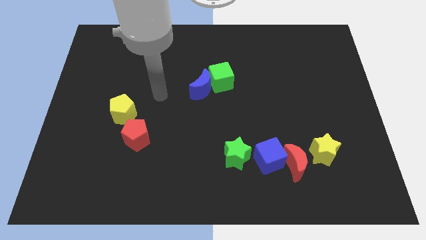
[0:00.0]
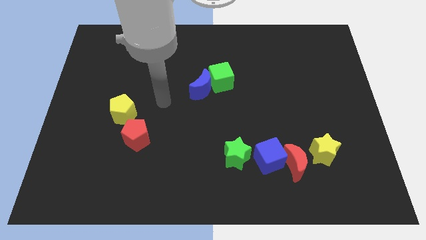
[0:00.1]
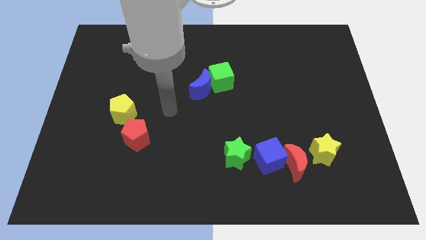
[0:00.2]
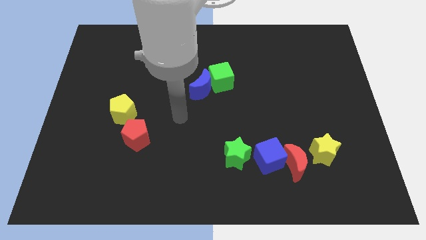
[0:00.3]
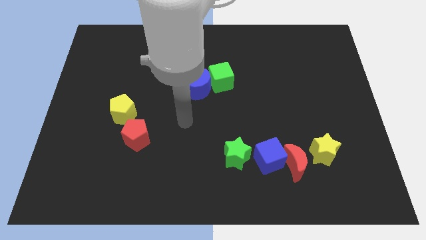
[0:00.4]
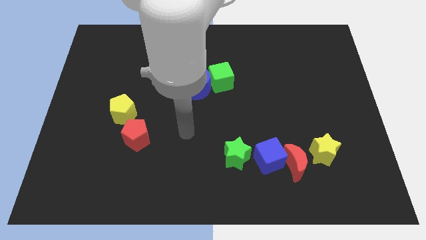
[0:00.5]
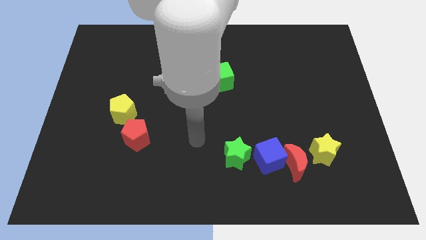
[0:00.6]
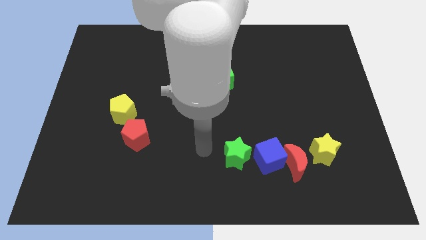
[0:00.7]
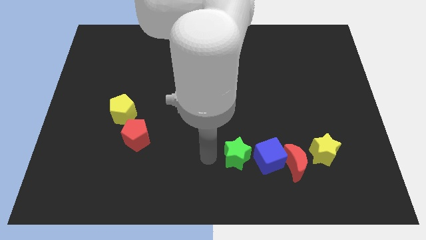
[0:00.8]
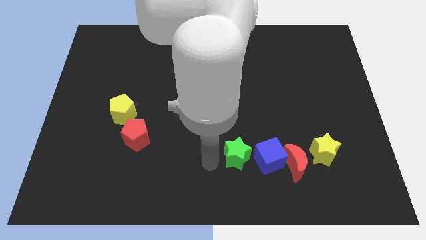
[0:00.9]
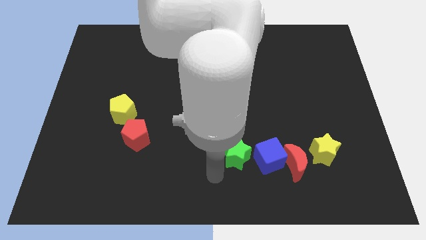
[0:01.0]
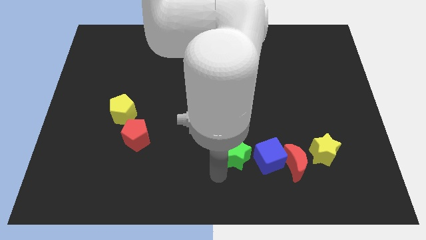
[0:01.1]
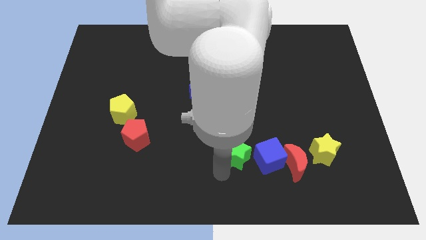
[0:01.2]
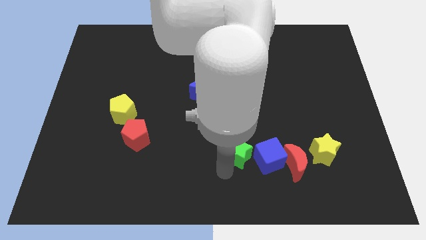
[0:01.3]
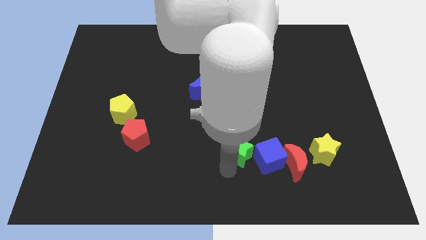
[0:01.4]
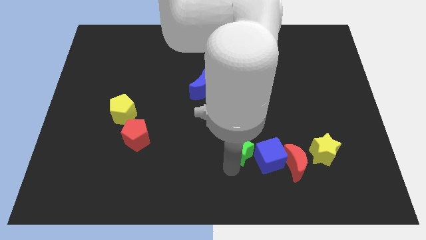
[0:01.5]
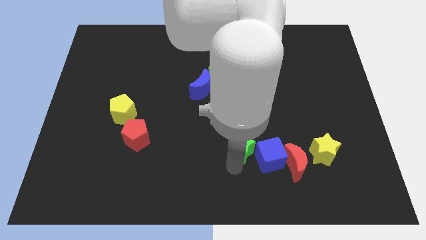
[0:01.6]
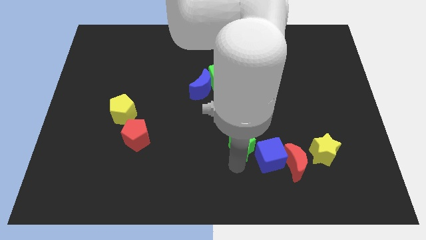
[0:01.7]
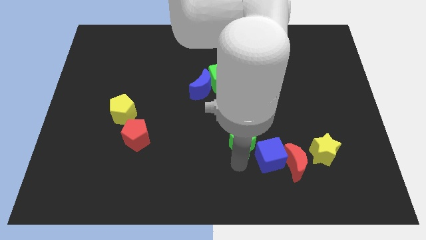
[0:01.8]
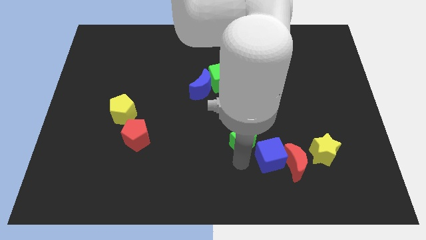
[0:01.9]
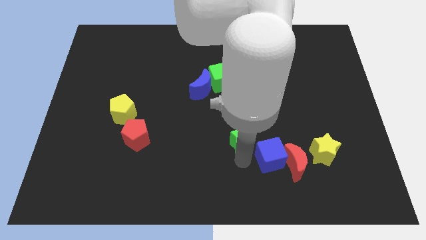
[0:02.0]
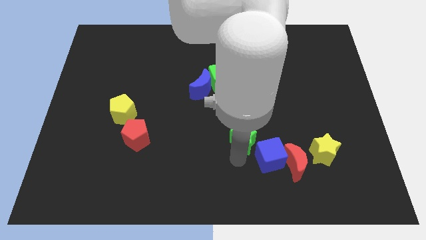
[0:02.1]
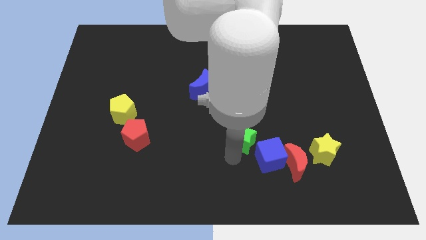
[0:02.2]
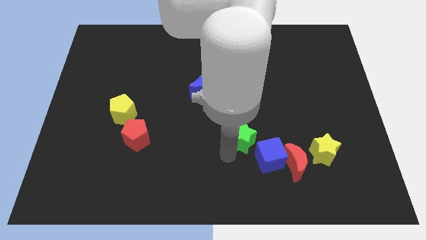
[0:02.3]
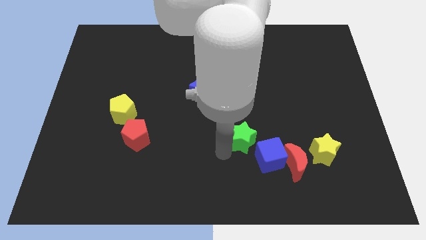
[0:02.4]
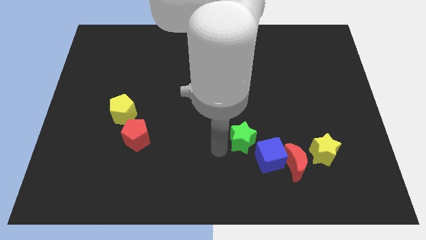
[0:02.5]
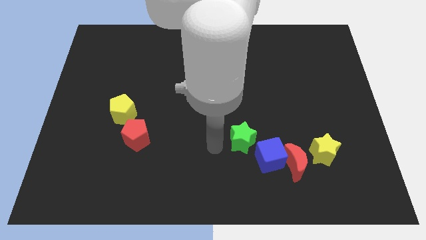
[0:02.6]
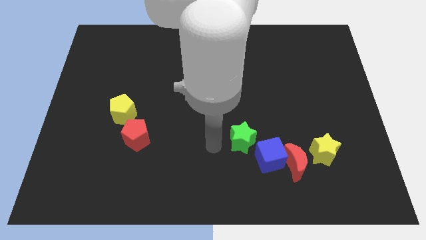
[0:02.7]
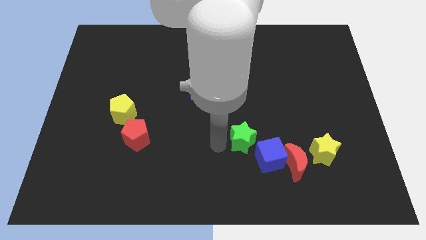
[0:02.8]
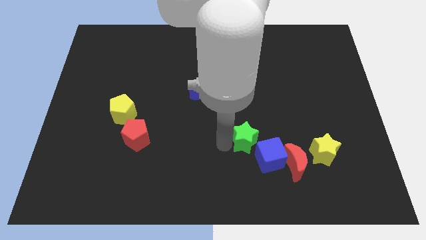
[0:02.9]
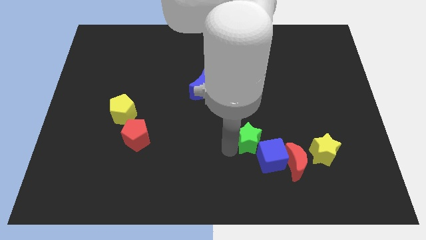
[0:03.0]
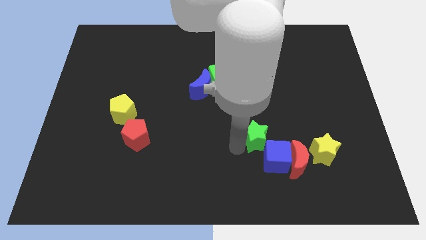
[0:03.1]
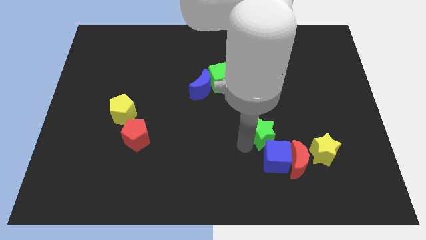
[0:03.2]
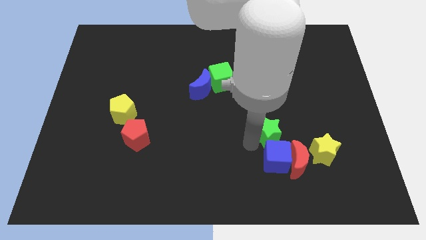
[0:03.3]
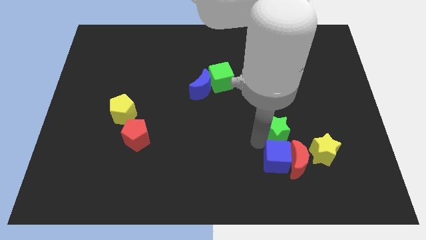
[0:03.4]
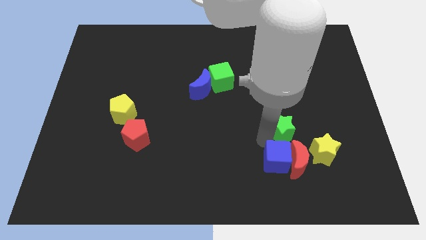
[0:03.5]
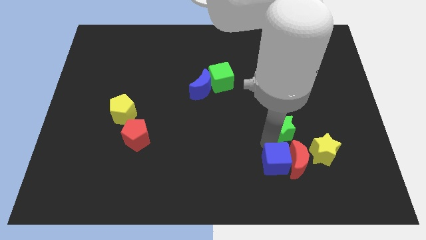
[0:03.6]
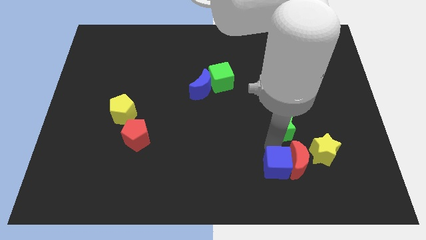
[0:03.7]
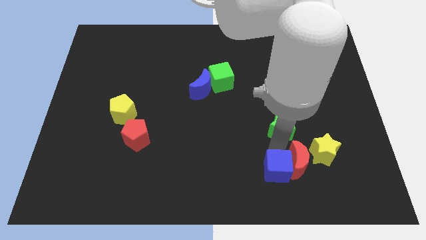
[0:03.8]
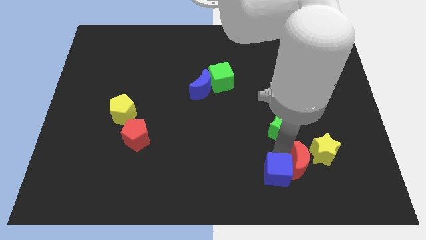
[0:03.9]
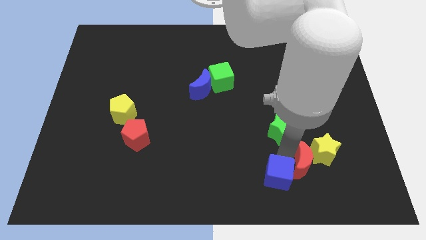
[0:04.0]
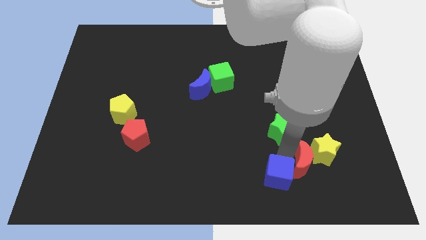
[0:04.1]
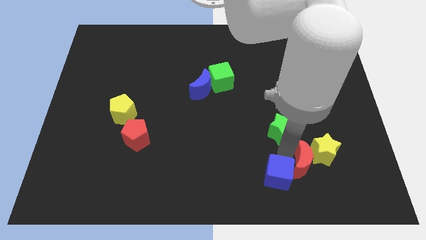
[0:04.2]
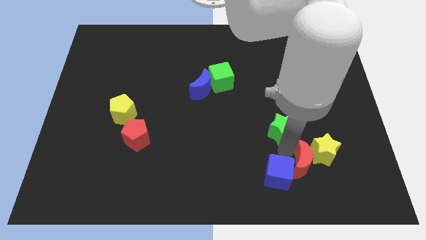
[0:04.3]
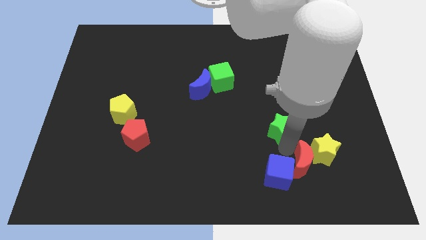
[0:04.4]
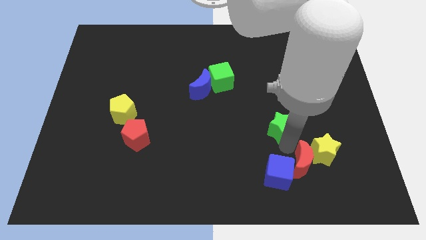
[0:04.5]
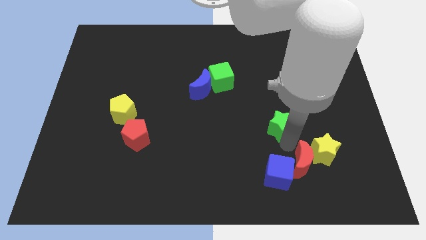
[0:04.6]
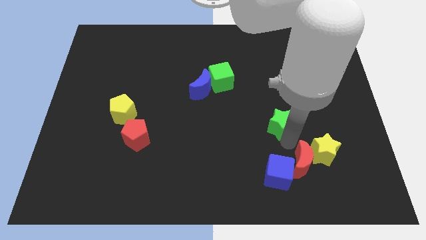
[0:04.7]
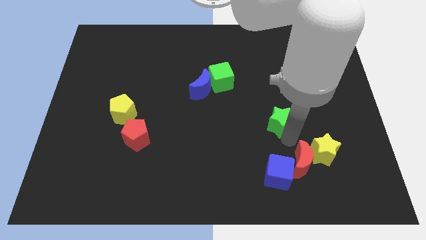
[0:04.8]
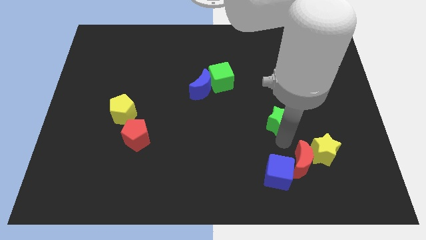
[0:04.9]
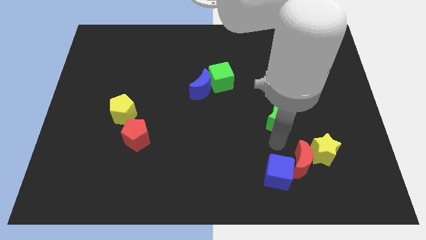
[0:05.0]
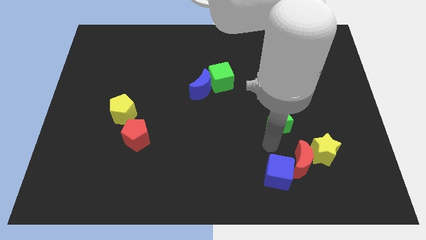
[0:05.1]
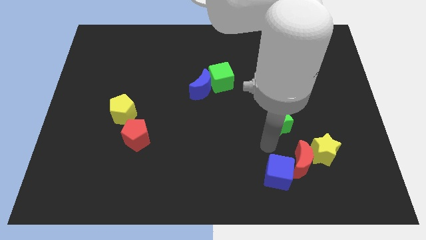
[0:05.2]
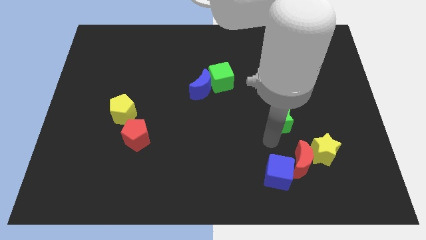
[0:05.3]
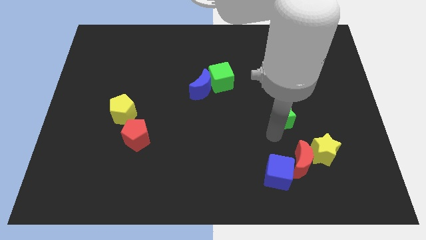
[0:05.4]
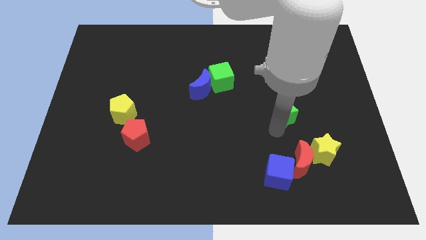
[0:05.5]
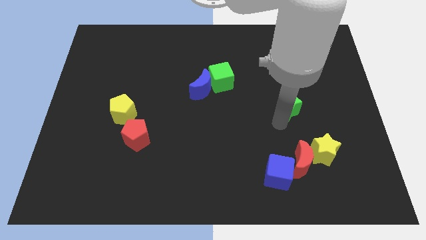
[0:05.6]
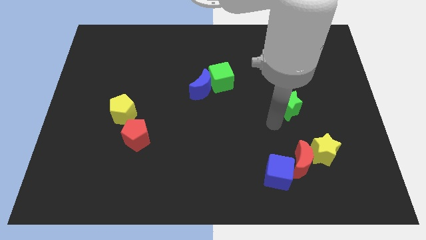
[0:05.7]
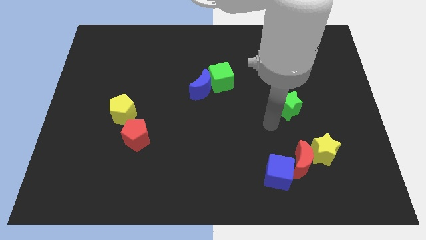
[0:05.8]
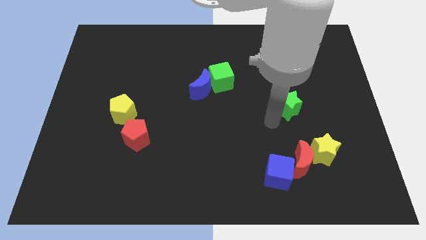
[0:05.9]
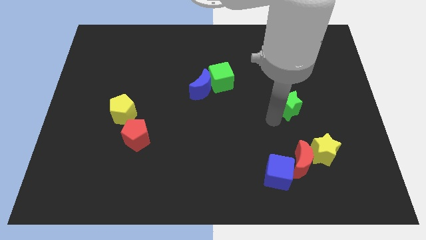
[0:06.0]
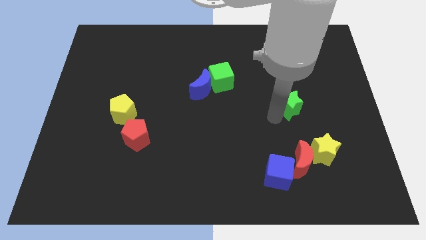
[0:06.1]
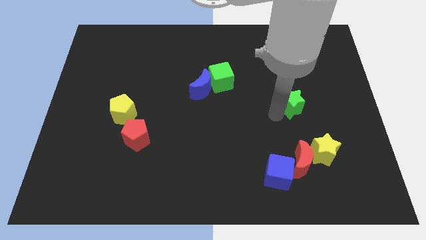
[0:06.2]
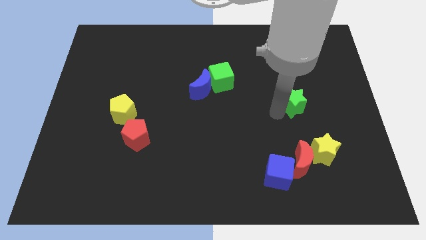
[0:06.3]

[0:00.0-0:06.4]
slide the green star up and then to the right

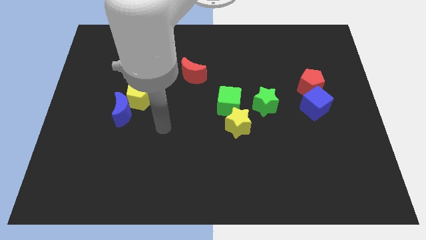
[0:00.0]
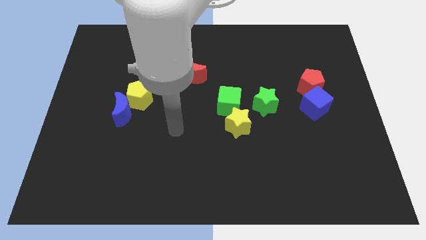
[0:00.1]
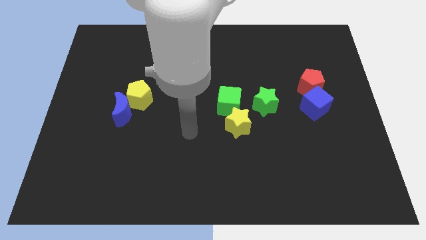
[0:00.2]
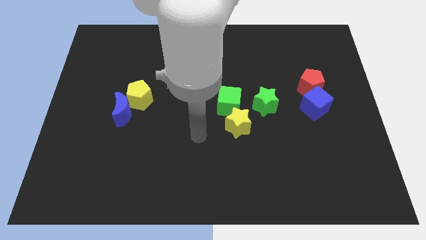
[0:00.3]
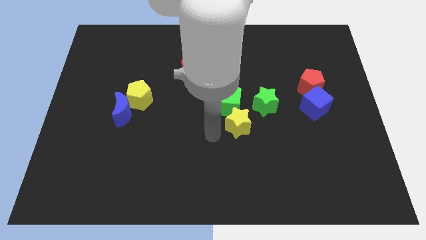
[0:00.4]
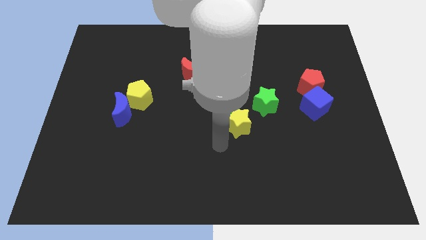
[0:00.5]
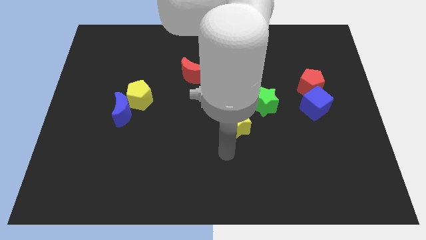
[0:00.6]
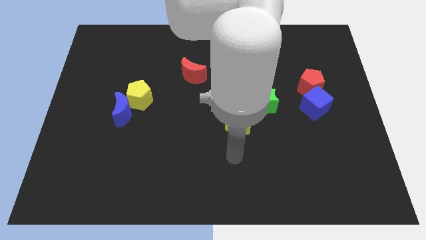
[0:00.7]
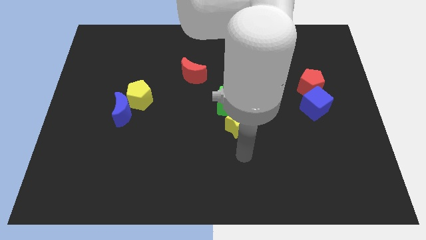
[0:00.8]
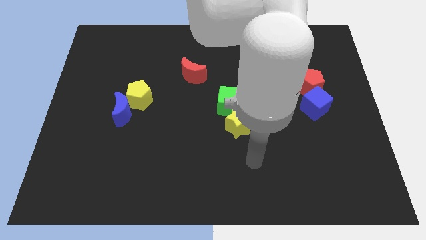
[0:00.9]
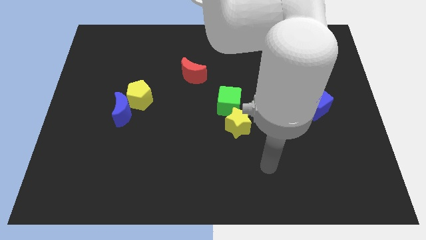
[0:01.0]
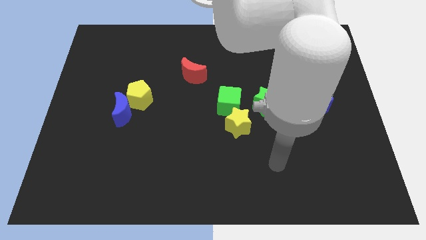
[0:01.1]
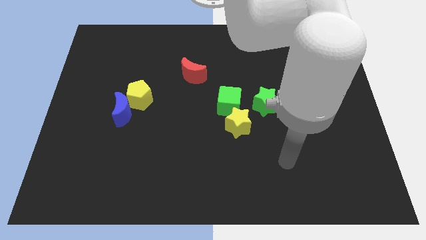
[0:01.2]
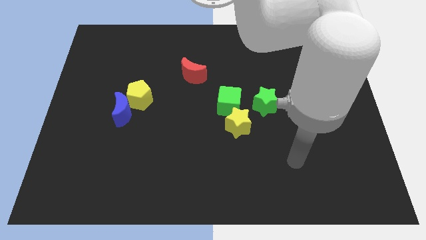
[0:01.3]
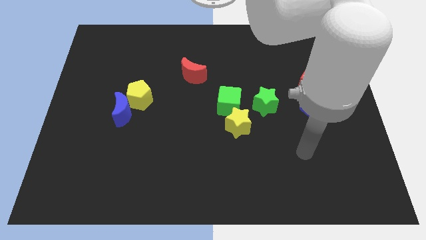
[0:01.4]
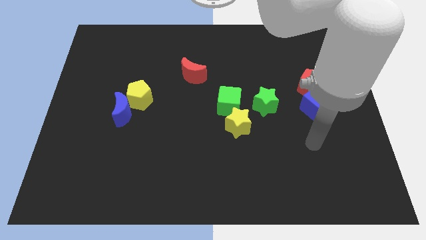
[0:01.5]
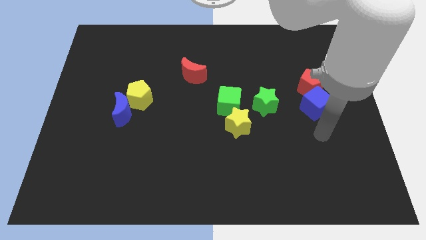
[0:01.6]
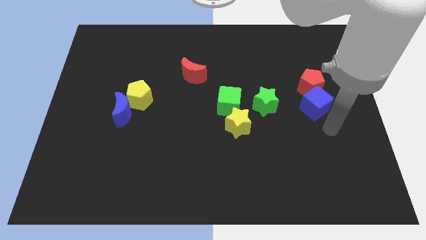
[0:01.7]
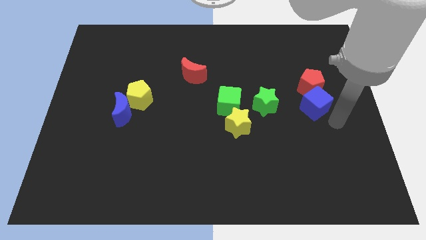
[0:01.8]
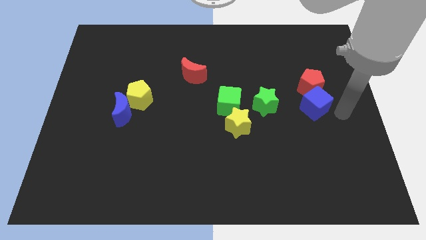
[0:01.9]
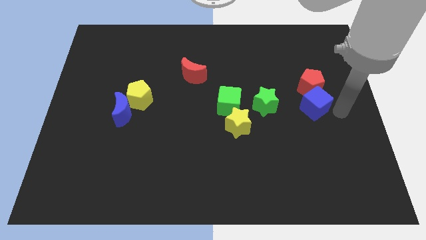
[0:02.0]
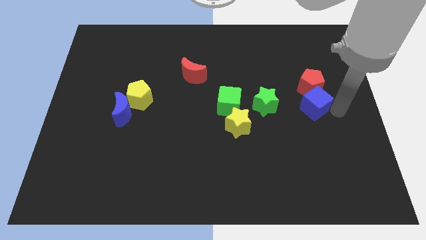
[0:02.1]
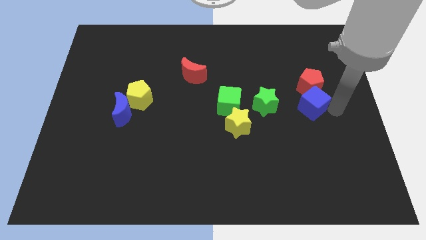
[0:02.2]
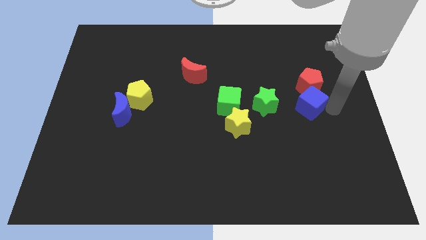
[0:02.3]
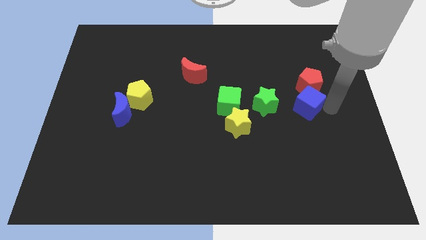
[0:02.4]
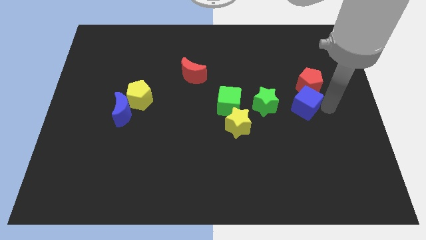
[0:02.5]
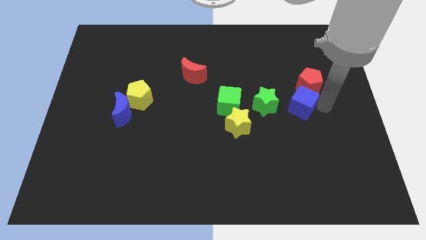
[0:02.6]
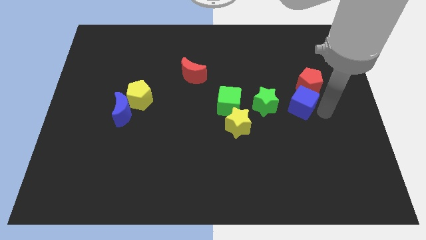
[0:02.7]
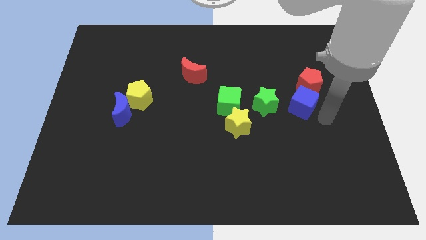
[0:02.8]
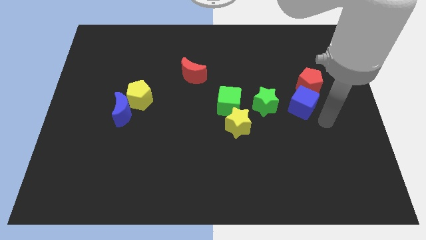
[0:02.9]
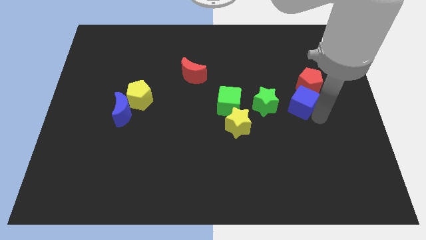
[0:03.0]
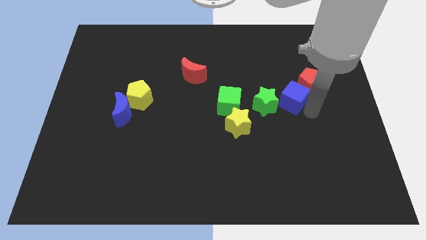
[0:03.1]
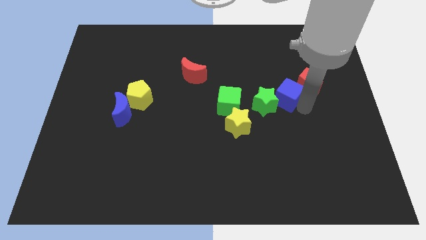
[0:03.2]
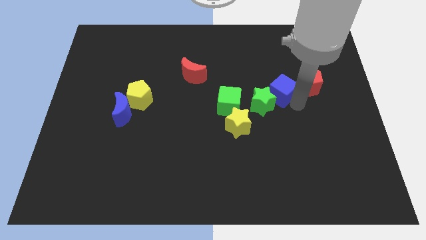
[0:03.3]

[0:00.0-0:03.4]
slide the blue cube upwards and left somewhat
